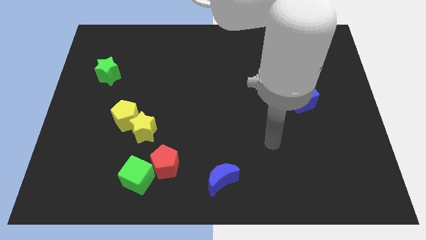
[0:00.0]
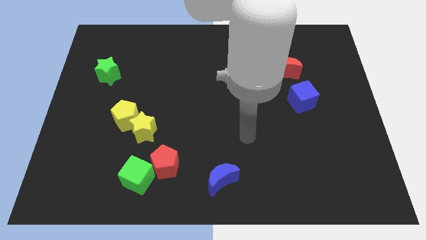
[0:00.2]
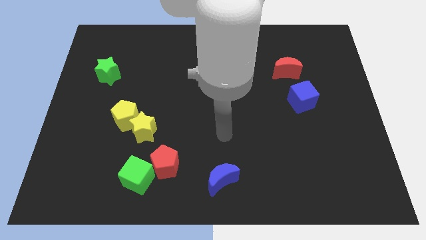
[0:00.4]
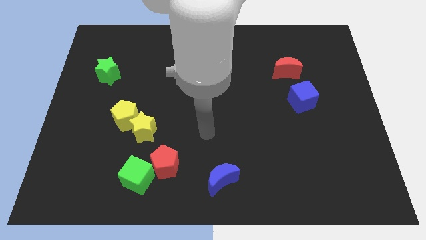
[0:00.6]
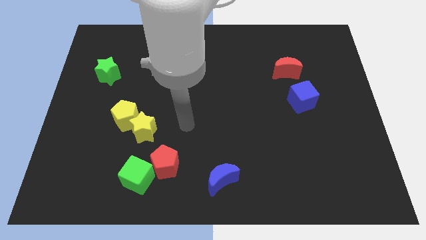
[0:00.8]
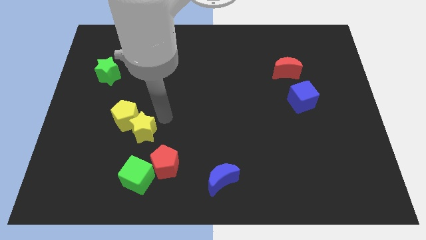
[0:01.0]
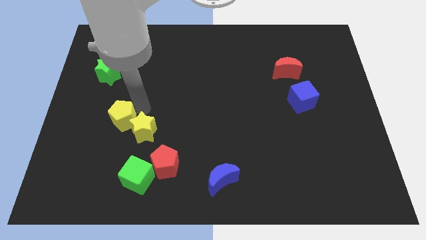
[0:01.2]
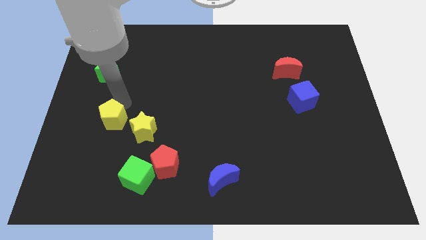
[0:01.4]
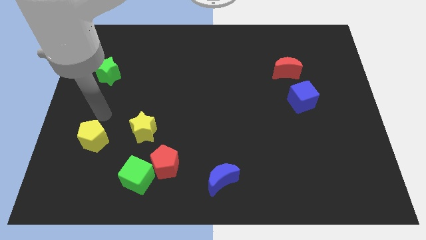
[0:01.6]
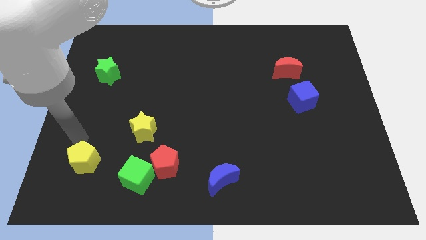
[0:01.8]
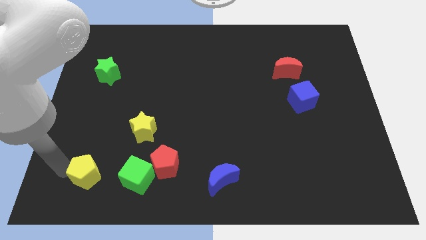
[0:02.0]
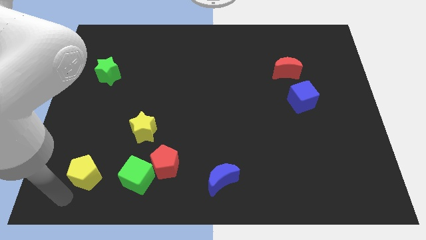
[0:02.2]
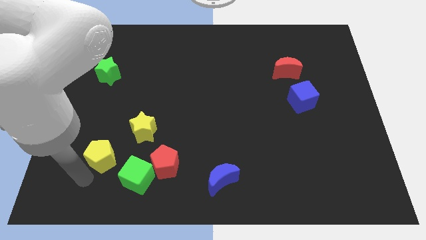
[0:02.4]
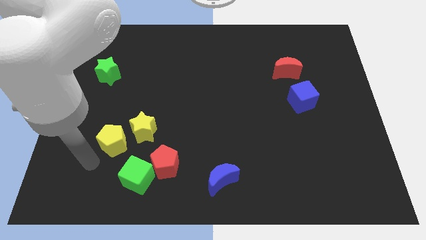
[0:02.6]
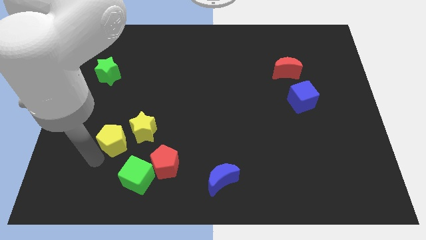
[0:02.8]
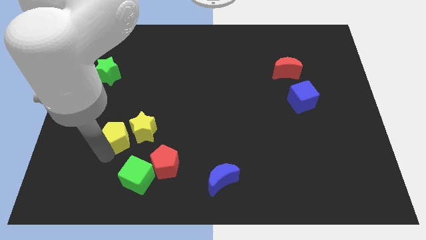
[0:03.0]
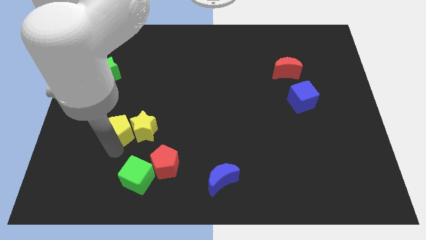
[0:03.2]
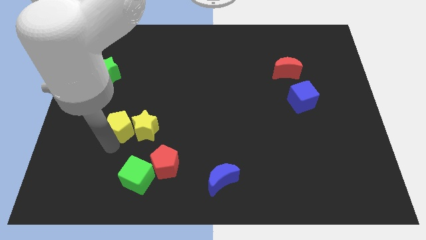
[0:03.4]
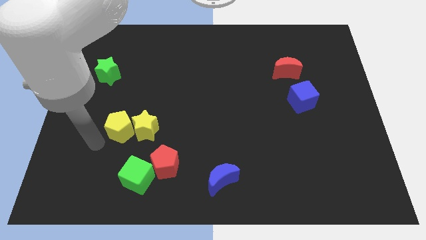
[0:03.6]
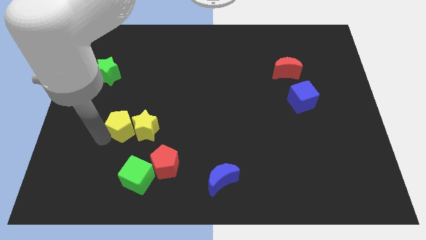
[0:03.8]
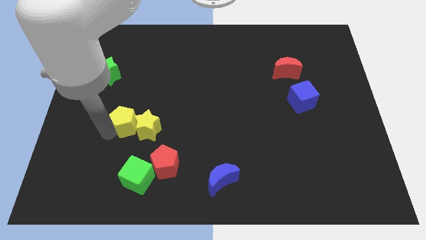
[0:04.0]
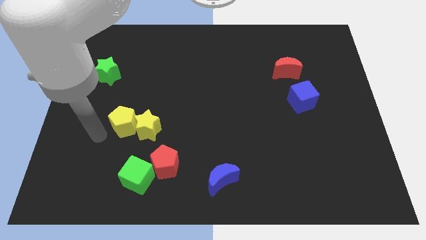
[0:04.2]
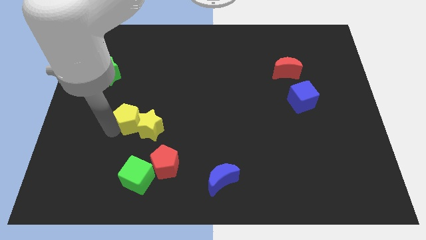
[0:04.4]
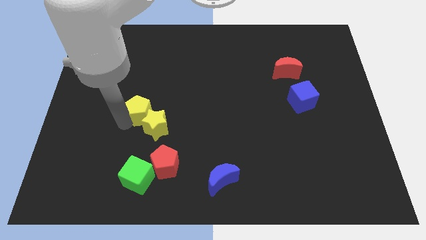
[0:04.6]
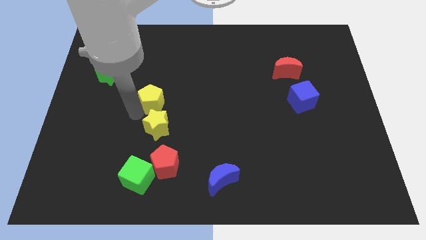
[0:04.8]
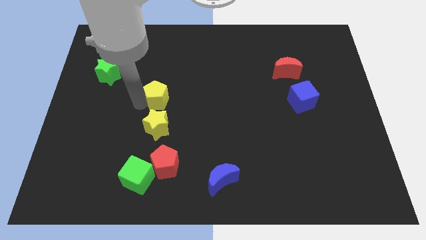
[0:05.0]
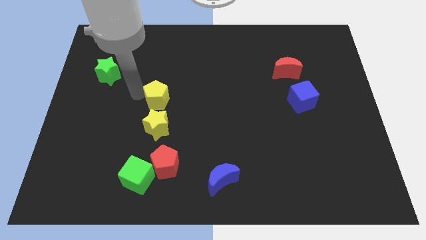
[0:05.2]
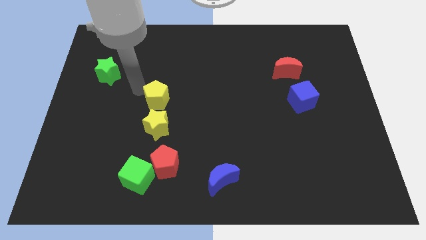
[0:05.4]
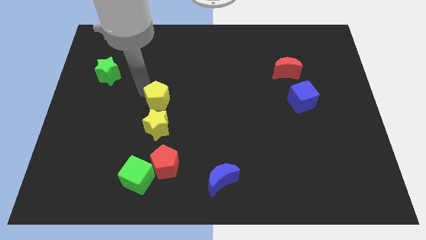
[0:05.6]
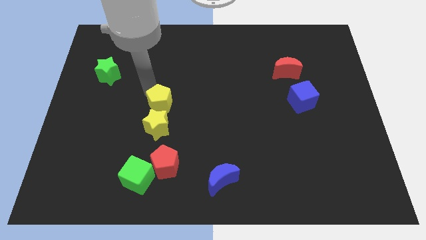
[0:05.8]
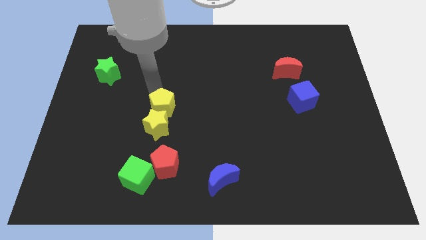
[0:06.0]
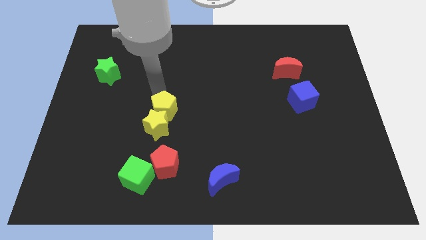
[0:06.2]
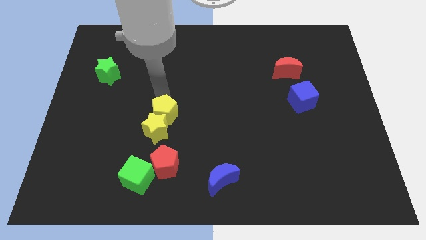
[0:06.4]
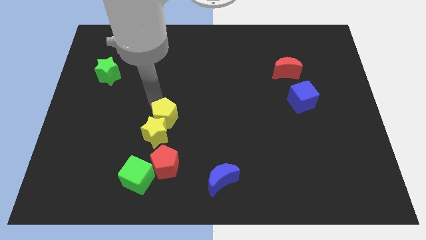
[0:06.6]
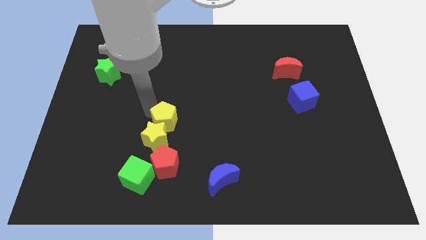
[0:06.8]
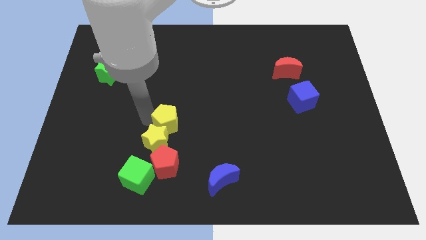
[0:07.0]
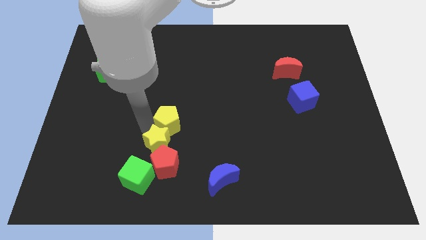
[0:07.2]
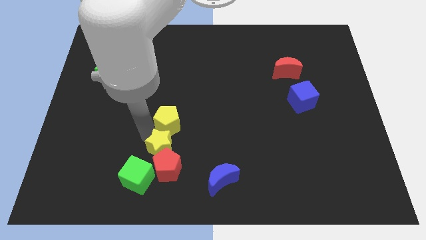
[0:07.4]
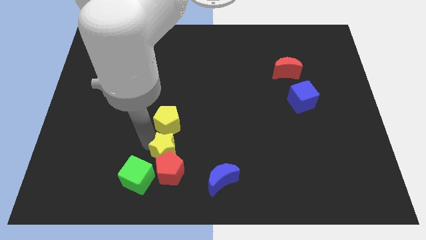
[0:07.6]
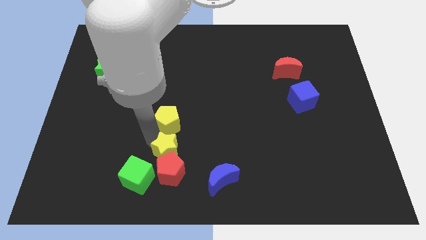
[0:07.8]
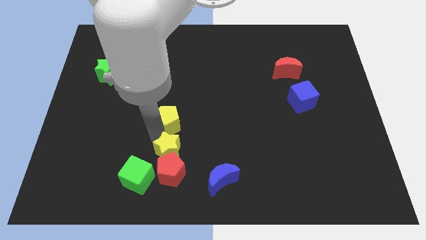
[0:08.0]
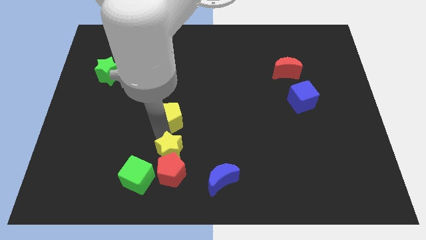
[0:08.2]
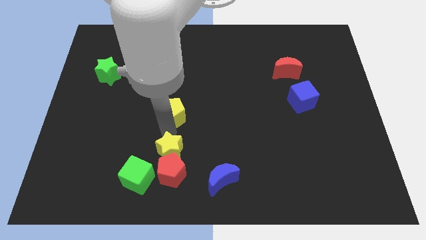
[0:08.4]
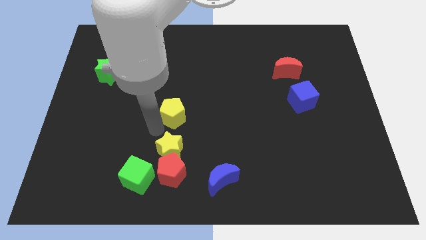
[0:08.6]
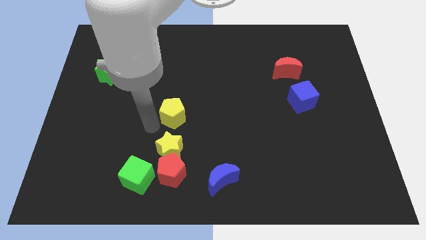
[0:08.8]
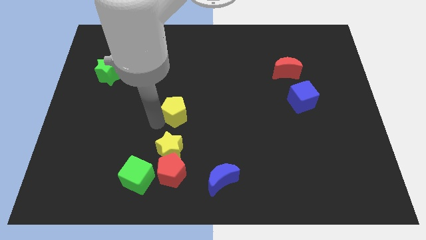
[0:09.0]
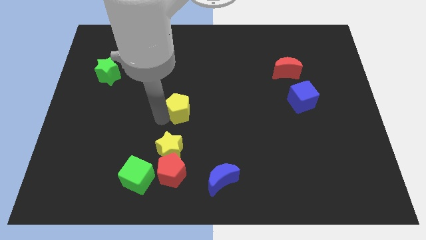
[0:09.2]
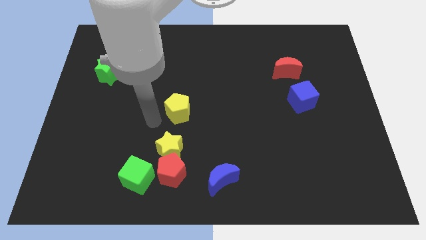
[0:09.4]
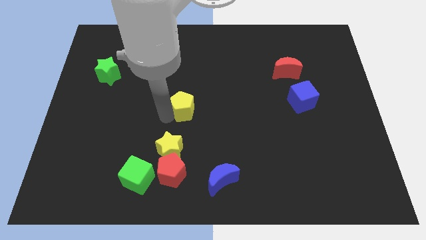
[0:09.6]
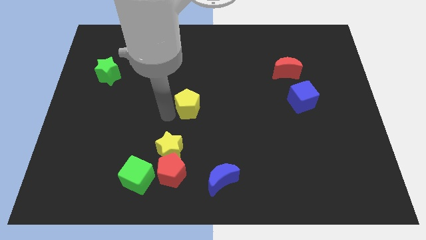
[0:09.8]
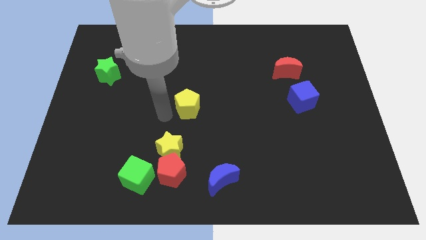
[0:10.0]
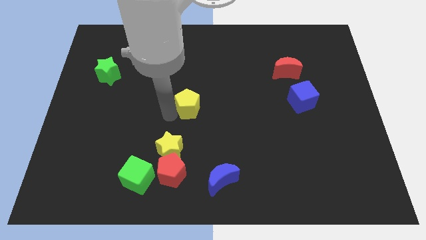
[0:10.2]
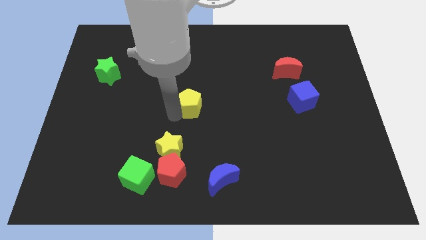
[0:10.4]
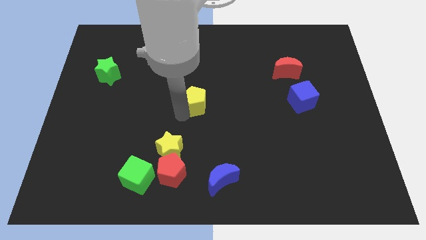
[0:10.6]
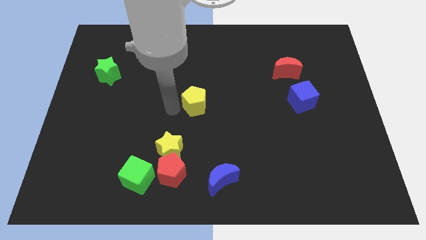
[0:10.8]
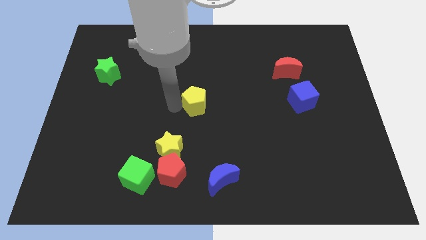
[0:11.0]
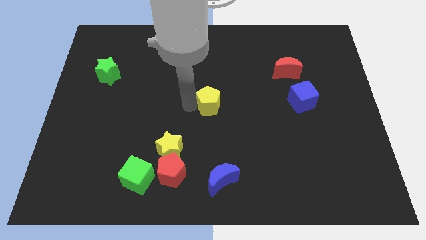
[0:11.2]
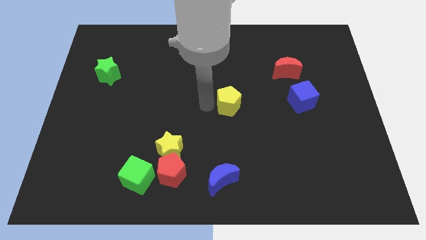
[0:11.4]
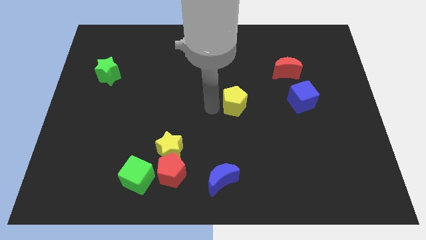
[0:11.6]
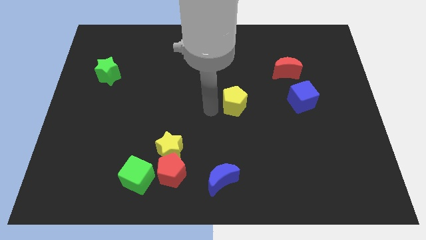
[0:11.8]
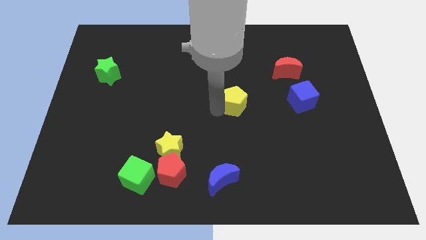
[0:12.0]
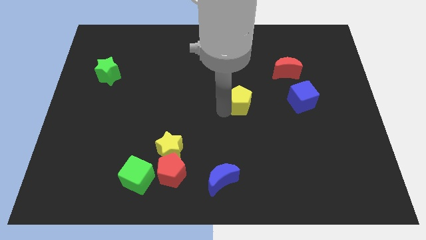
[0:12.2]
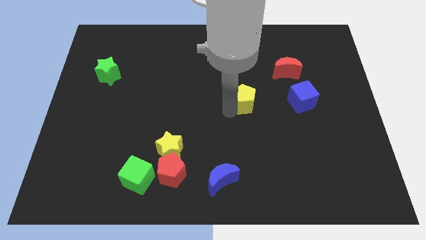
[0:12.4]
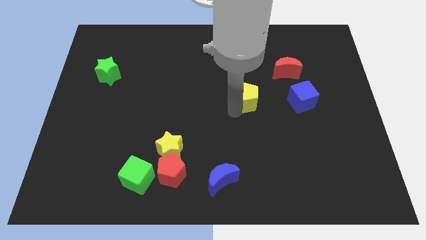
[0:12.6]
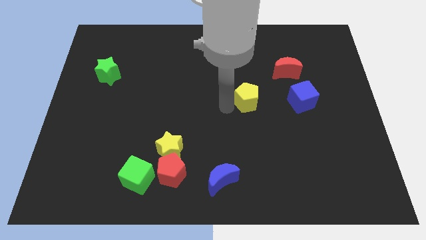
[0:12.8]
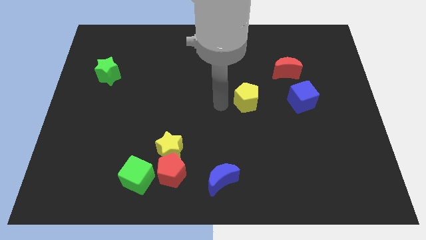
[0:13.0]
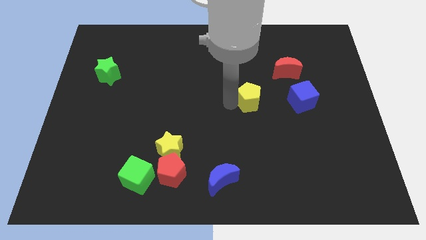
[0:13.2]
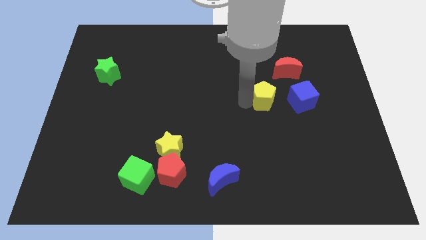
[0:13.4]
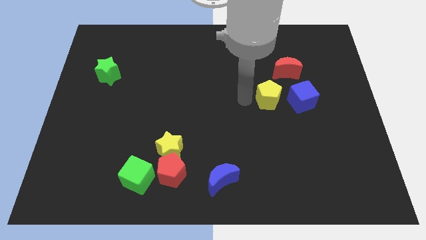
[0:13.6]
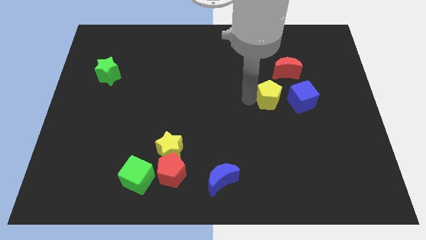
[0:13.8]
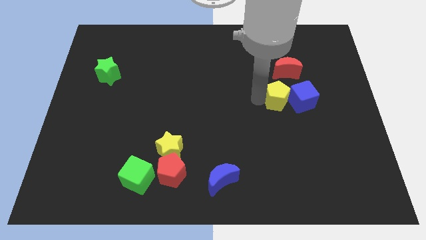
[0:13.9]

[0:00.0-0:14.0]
push the yellow pentagon to the blue cube
